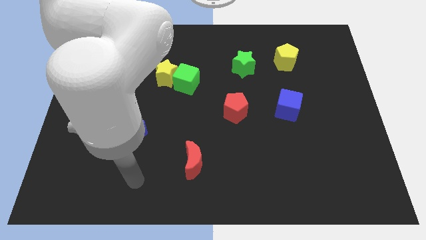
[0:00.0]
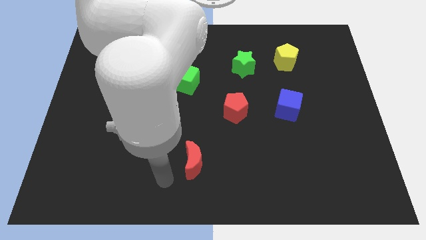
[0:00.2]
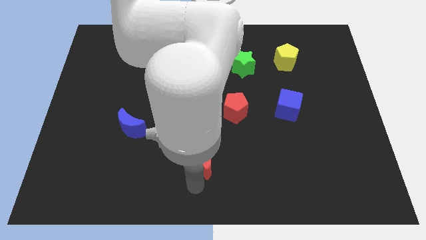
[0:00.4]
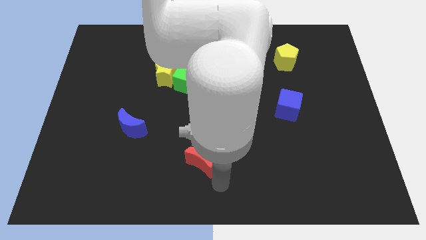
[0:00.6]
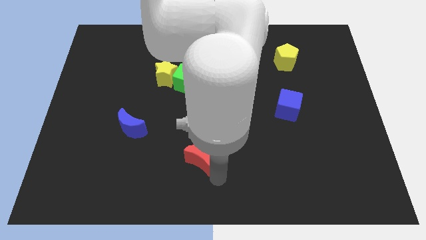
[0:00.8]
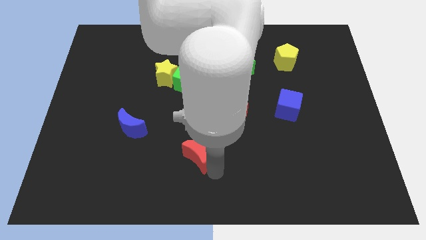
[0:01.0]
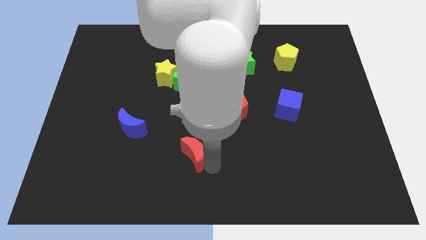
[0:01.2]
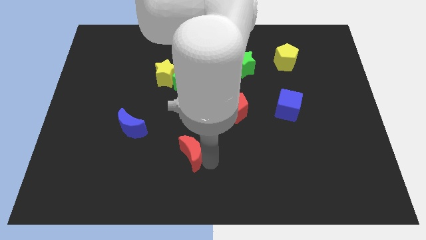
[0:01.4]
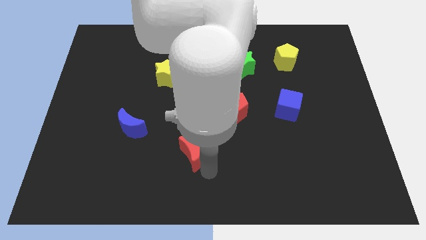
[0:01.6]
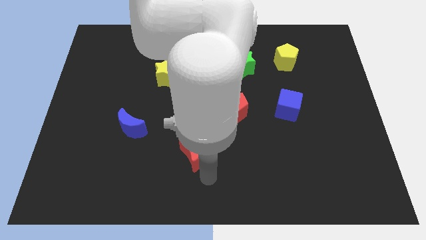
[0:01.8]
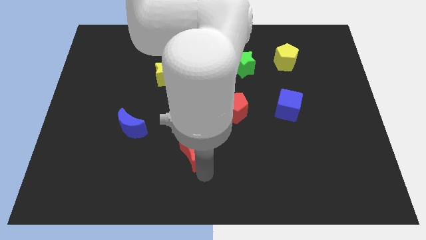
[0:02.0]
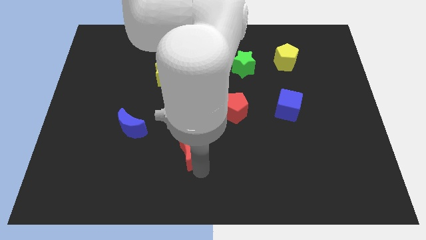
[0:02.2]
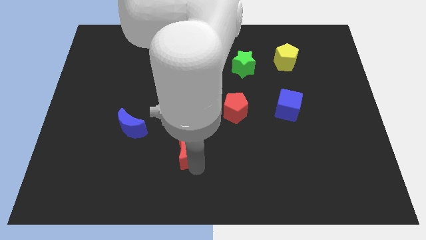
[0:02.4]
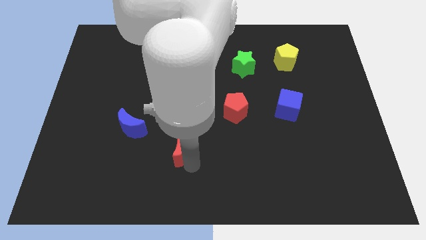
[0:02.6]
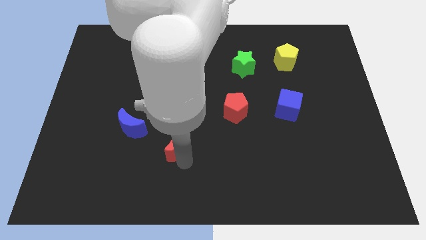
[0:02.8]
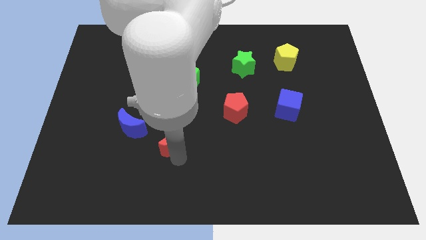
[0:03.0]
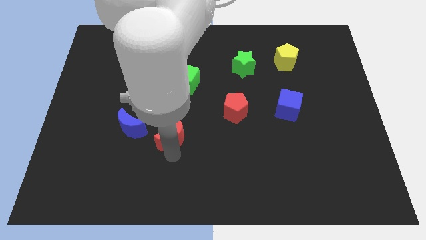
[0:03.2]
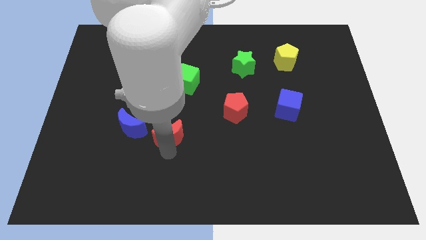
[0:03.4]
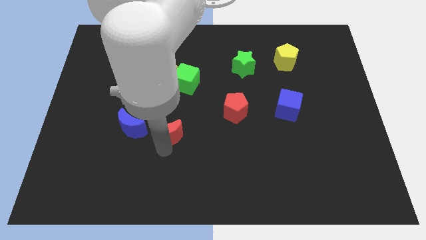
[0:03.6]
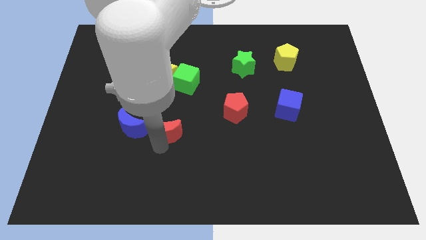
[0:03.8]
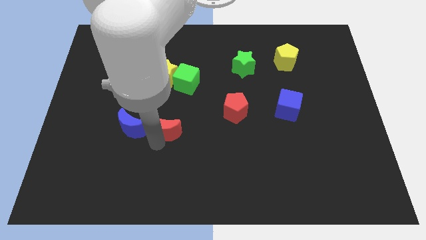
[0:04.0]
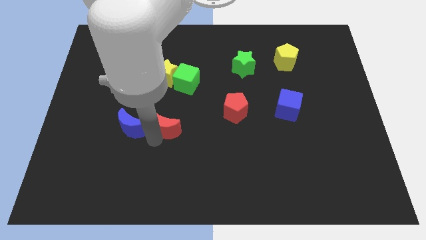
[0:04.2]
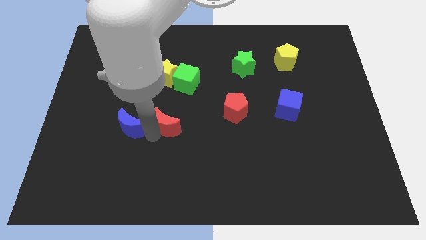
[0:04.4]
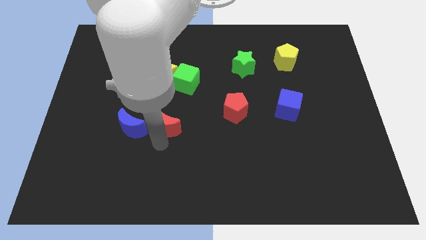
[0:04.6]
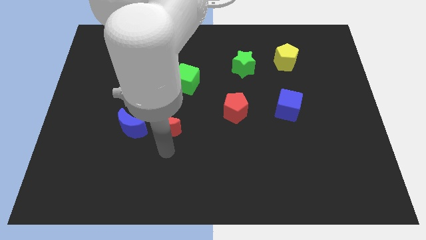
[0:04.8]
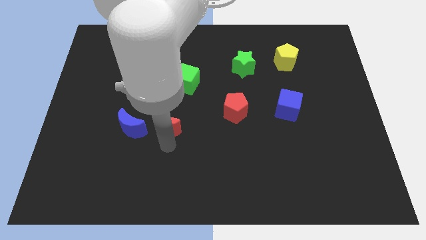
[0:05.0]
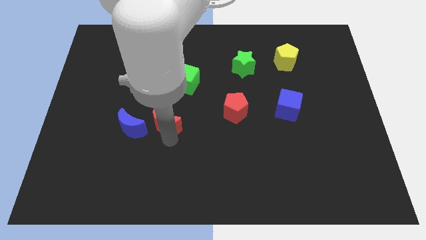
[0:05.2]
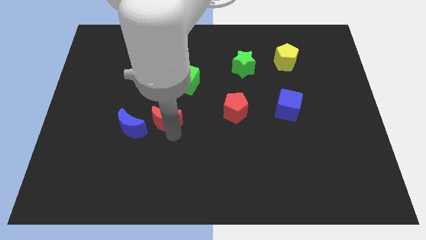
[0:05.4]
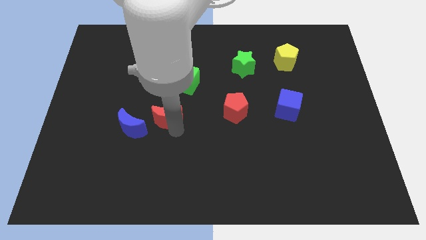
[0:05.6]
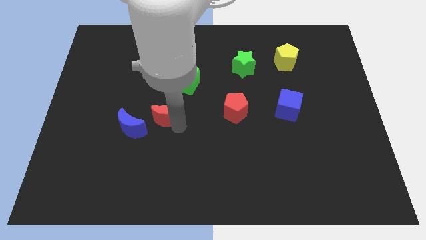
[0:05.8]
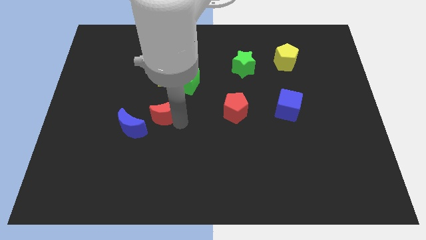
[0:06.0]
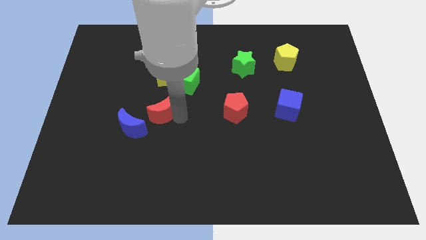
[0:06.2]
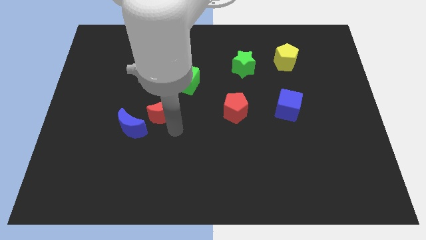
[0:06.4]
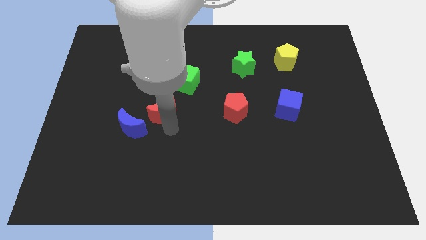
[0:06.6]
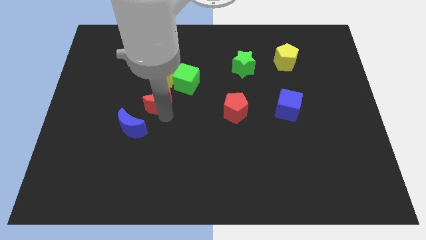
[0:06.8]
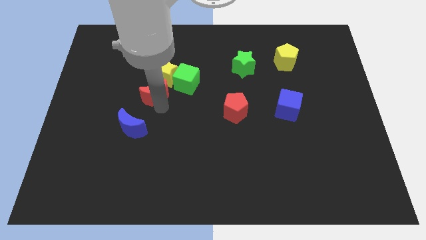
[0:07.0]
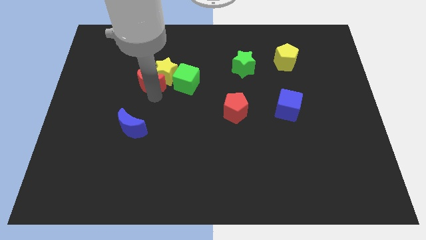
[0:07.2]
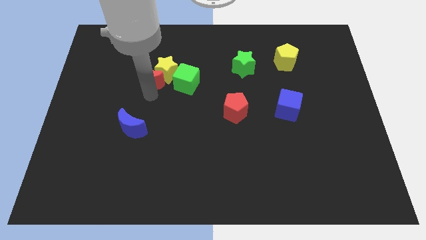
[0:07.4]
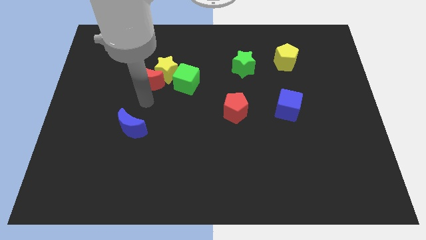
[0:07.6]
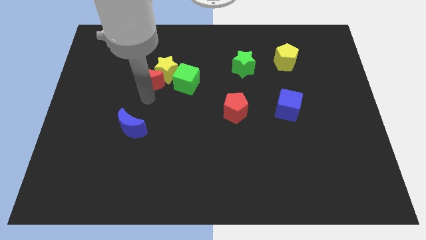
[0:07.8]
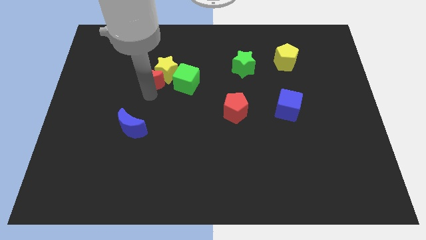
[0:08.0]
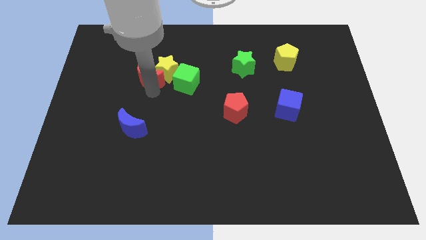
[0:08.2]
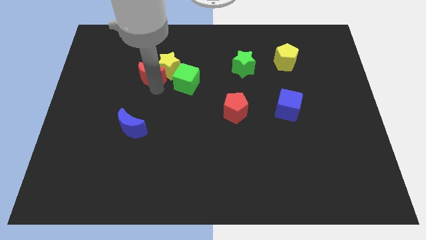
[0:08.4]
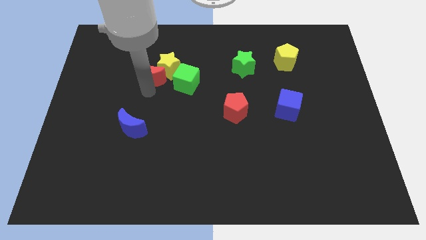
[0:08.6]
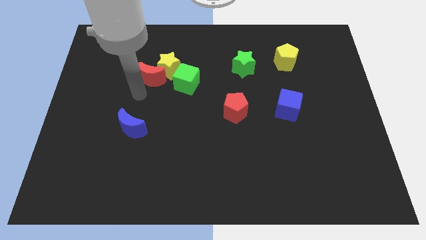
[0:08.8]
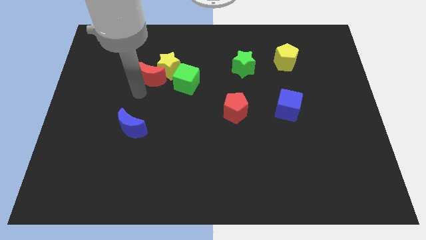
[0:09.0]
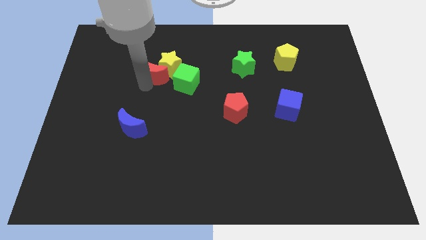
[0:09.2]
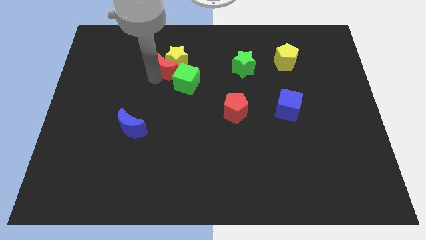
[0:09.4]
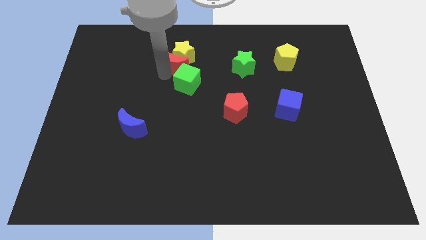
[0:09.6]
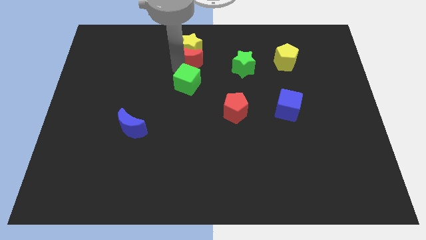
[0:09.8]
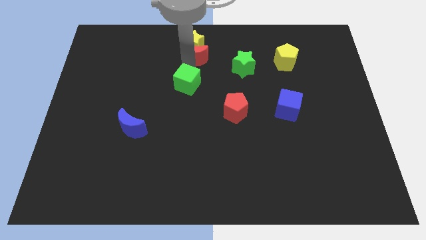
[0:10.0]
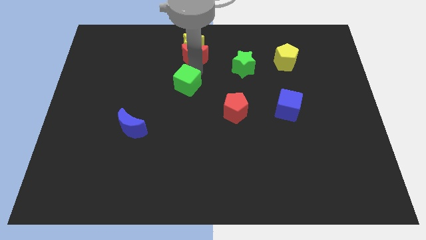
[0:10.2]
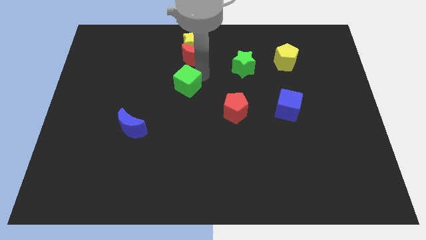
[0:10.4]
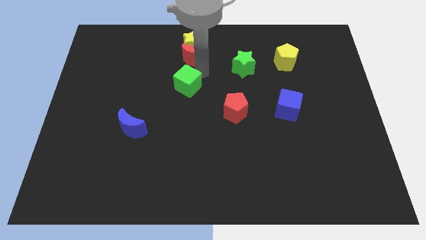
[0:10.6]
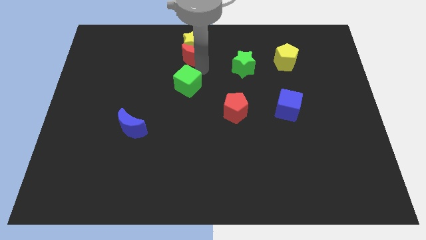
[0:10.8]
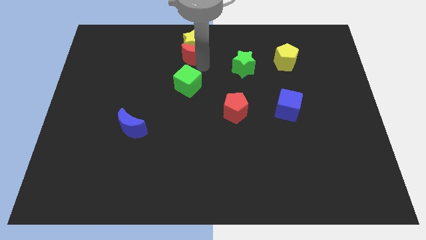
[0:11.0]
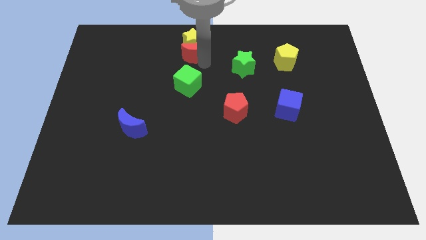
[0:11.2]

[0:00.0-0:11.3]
push the red moon to the top
